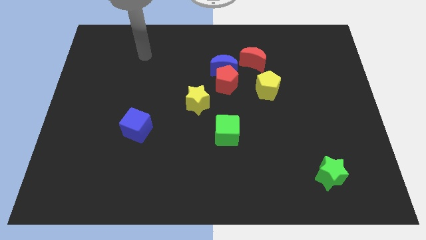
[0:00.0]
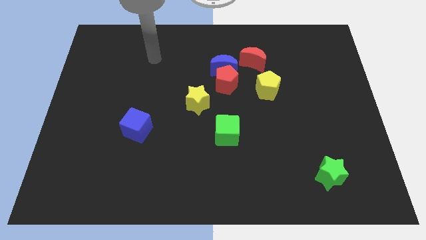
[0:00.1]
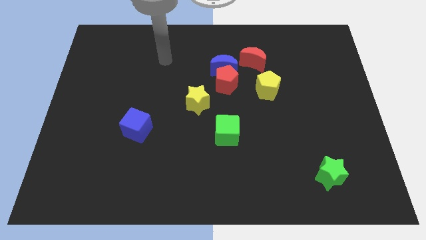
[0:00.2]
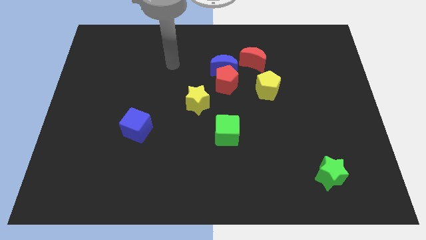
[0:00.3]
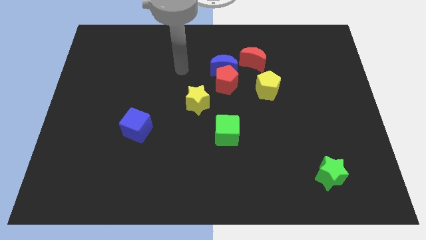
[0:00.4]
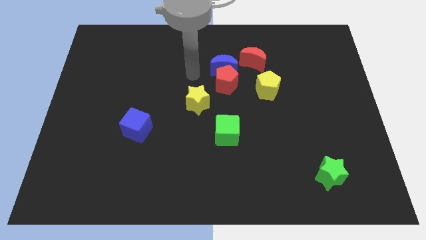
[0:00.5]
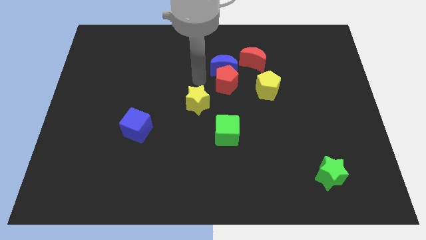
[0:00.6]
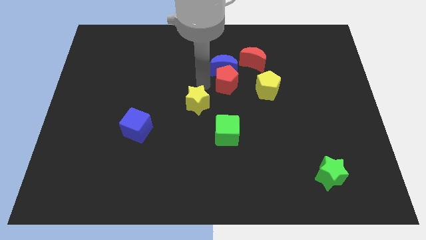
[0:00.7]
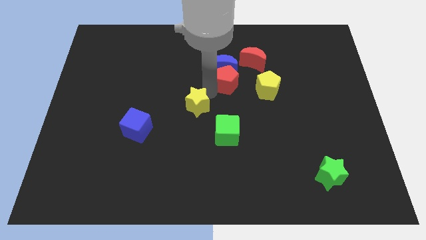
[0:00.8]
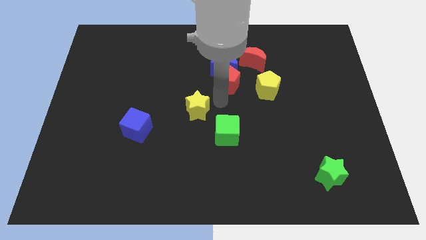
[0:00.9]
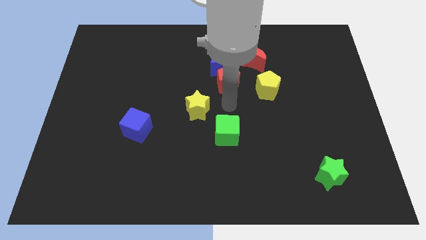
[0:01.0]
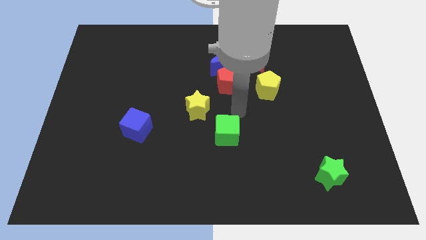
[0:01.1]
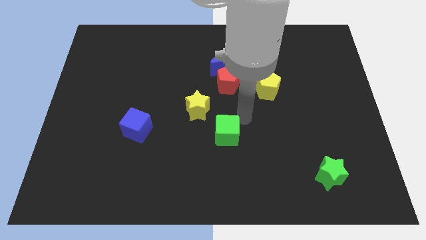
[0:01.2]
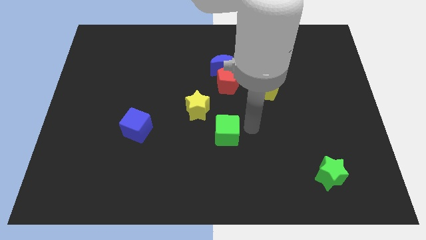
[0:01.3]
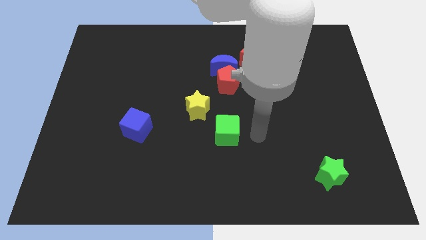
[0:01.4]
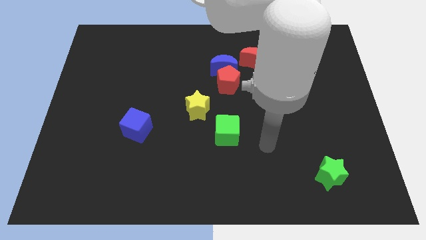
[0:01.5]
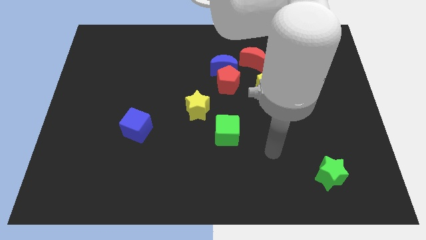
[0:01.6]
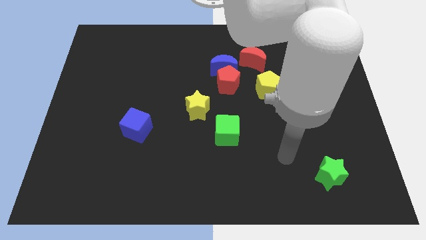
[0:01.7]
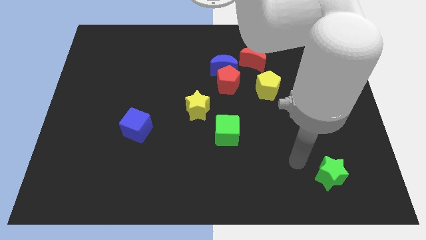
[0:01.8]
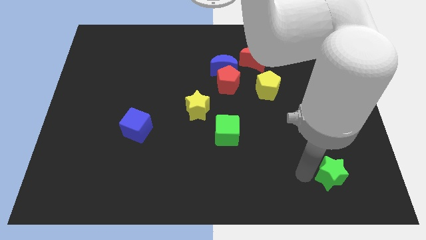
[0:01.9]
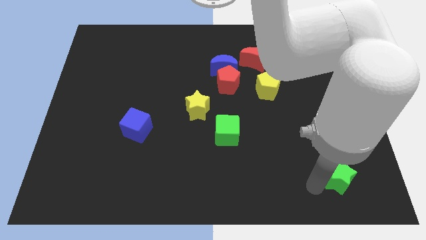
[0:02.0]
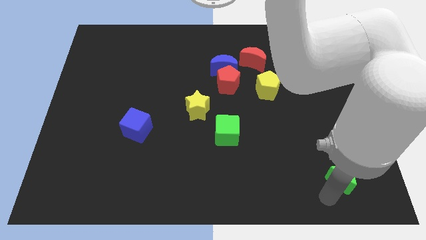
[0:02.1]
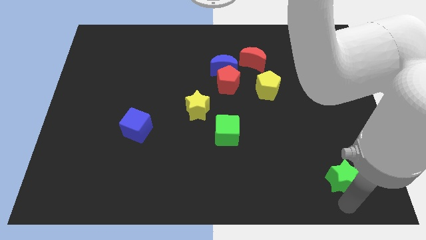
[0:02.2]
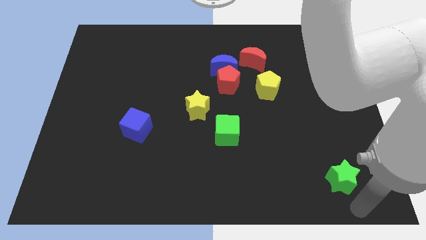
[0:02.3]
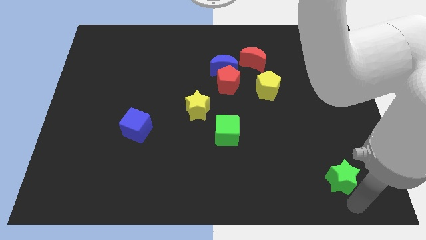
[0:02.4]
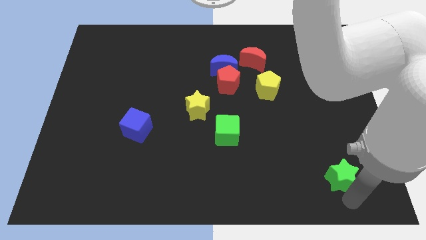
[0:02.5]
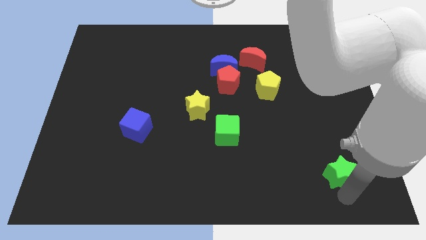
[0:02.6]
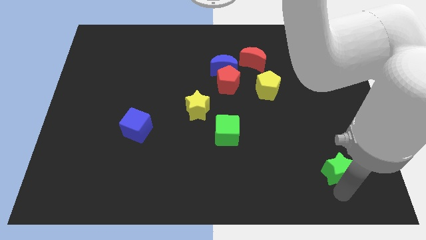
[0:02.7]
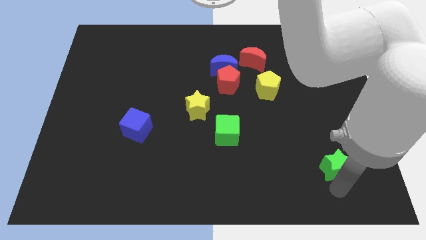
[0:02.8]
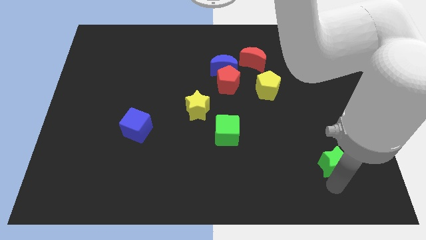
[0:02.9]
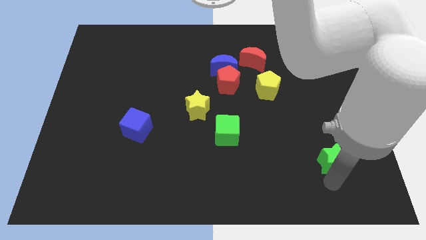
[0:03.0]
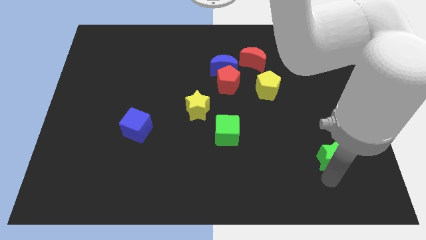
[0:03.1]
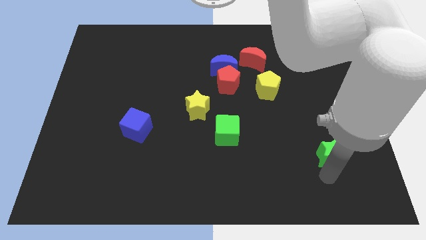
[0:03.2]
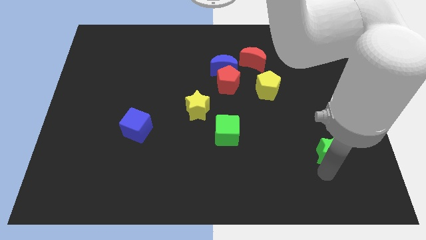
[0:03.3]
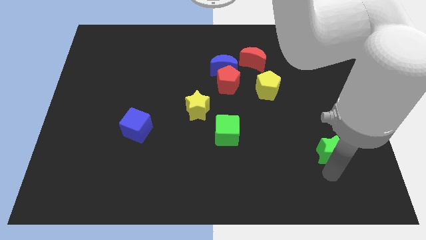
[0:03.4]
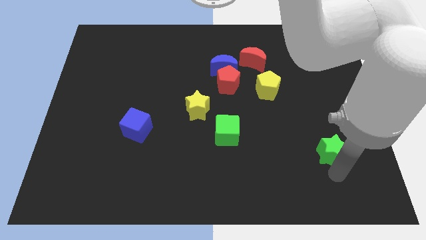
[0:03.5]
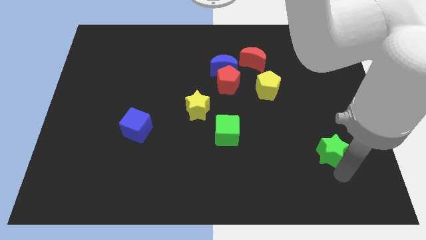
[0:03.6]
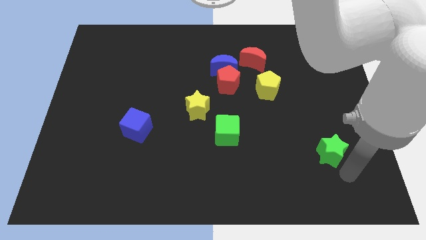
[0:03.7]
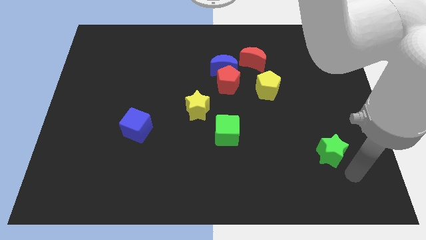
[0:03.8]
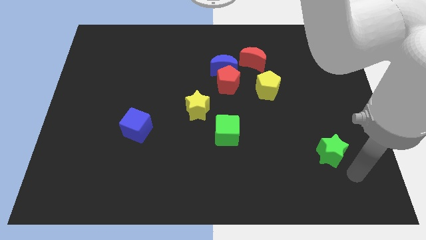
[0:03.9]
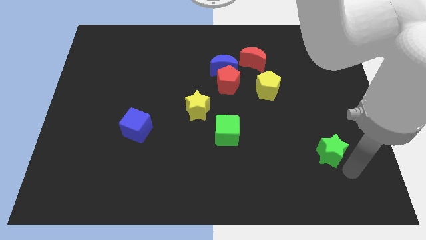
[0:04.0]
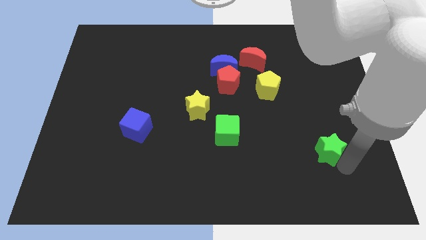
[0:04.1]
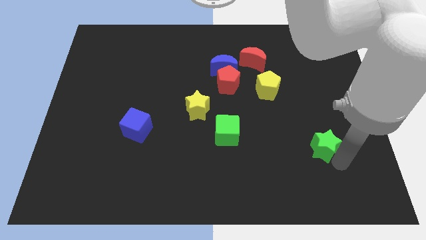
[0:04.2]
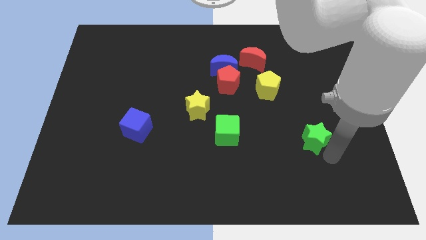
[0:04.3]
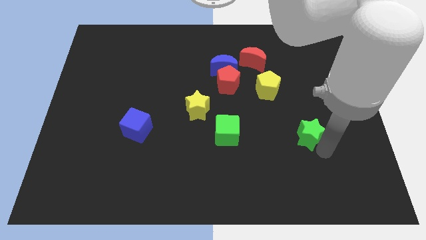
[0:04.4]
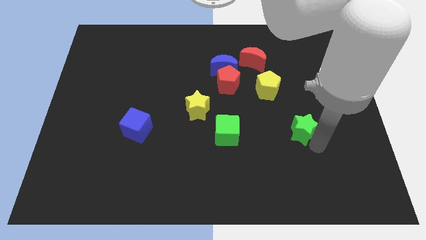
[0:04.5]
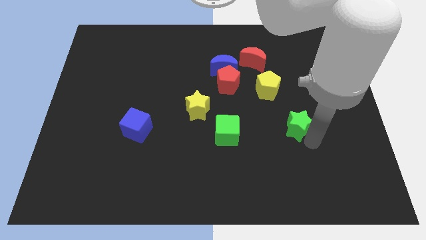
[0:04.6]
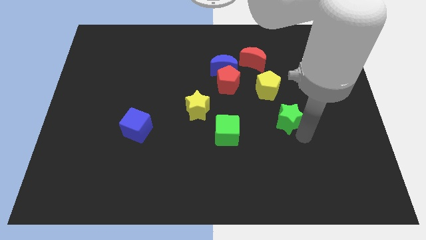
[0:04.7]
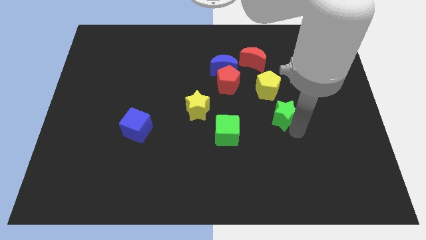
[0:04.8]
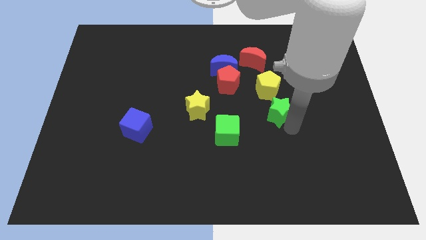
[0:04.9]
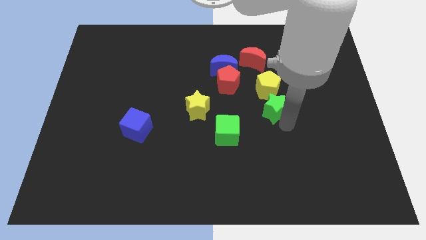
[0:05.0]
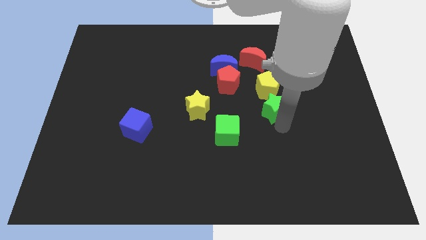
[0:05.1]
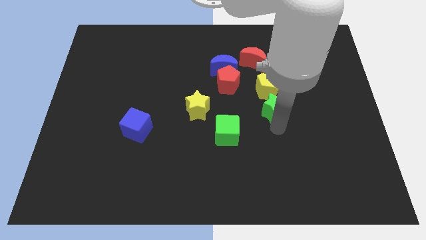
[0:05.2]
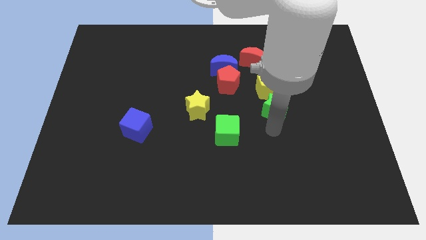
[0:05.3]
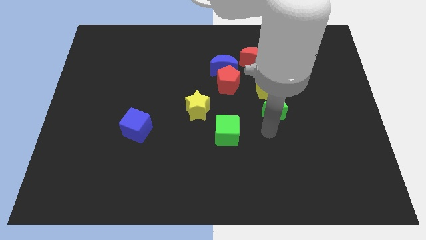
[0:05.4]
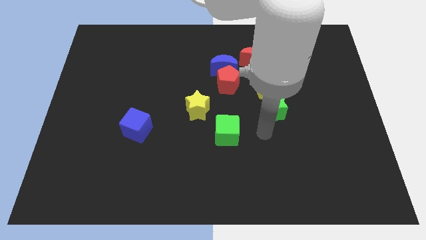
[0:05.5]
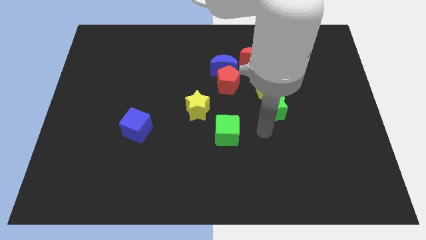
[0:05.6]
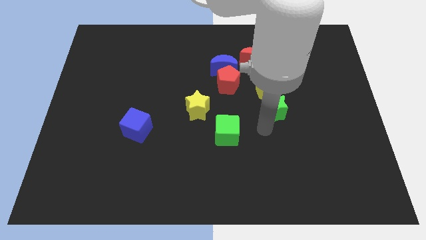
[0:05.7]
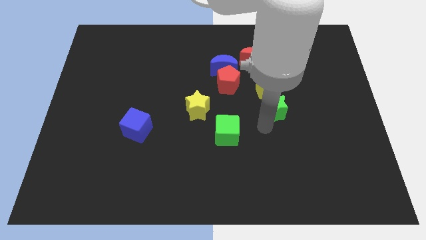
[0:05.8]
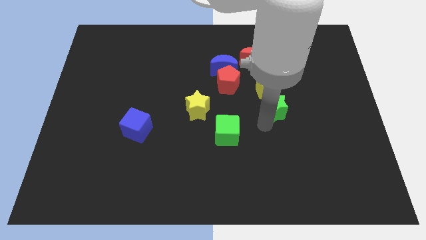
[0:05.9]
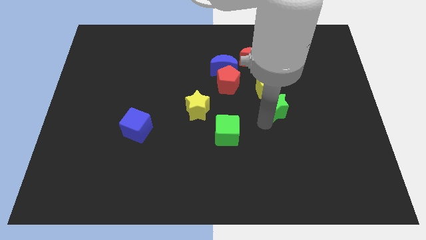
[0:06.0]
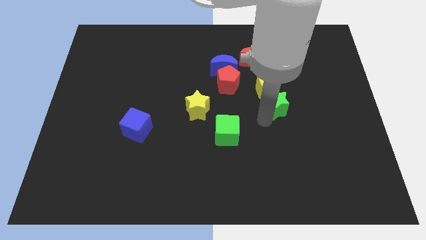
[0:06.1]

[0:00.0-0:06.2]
push the green star towards the yellow pentagon

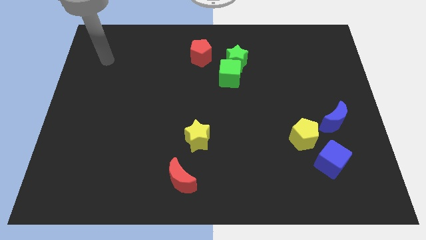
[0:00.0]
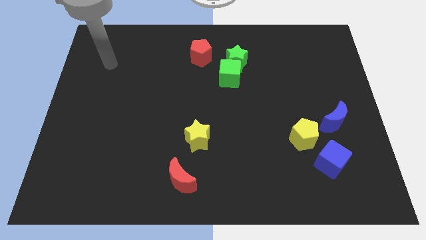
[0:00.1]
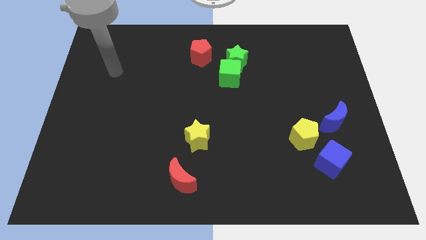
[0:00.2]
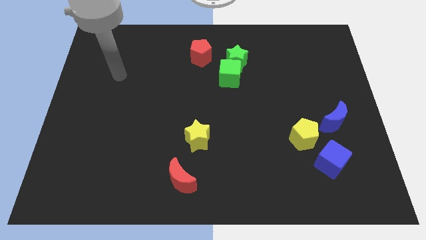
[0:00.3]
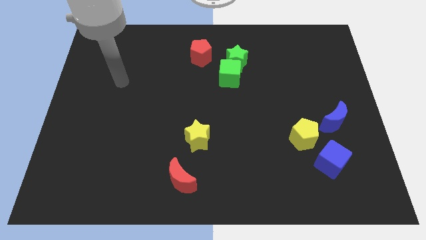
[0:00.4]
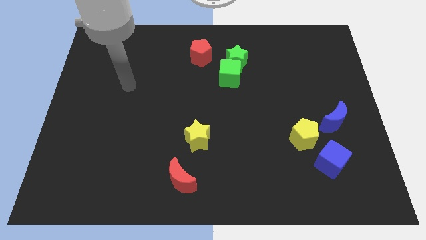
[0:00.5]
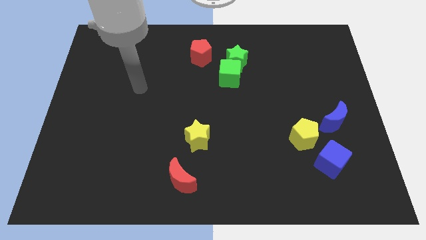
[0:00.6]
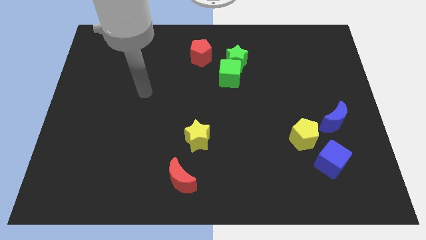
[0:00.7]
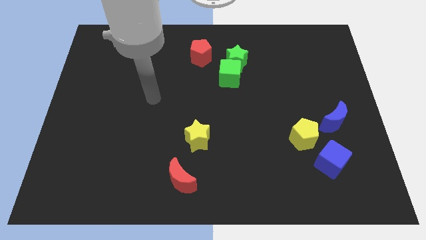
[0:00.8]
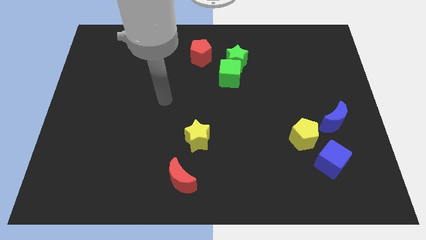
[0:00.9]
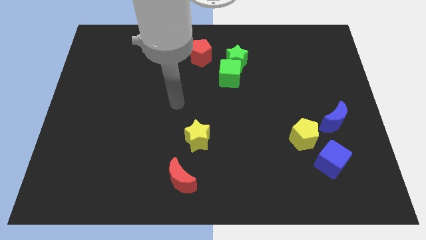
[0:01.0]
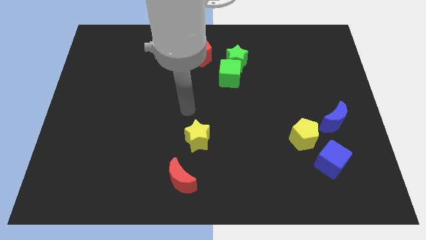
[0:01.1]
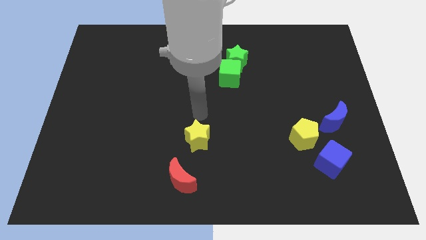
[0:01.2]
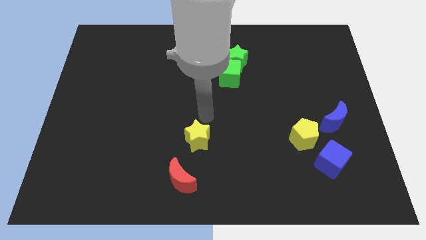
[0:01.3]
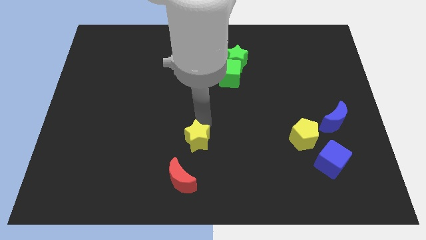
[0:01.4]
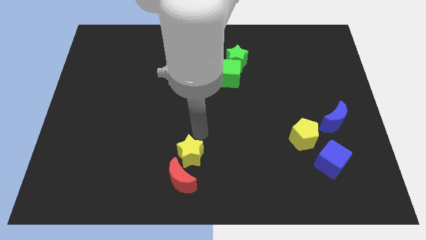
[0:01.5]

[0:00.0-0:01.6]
push the yellow star to the red moon
